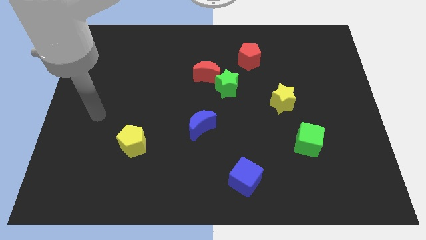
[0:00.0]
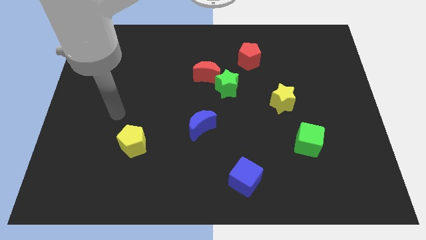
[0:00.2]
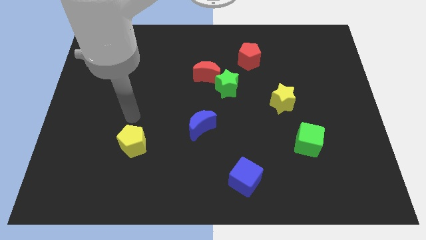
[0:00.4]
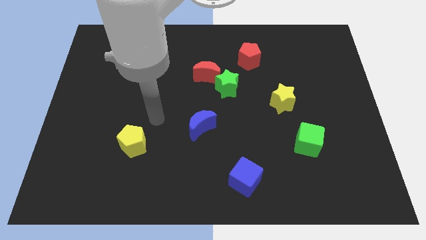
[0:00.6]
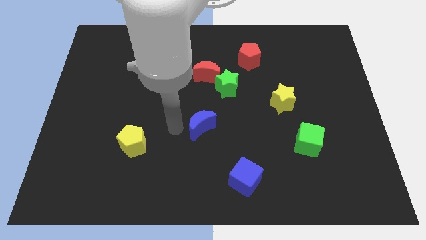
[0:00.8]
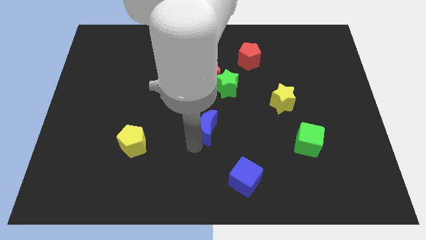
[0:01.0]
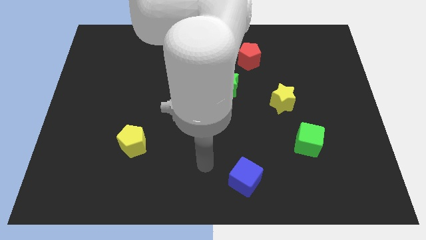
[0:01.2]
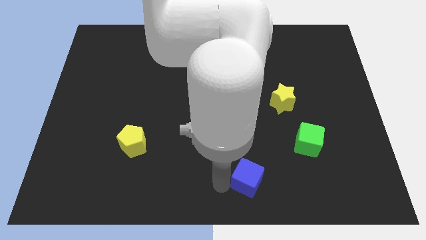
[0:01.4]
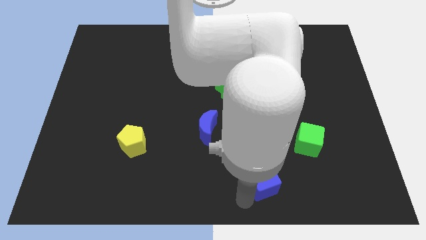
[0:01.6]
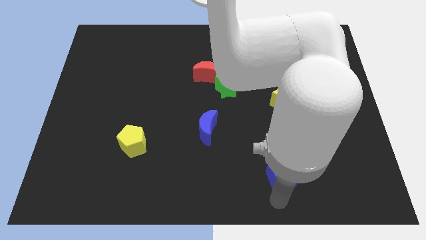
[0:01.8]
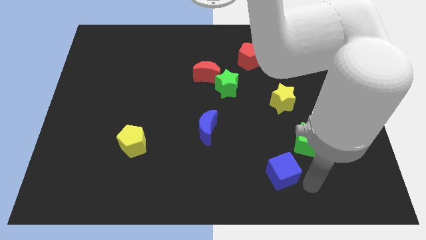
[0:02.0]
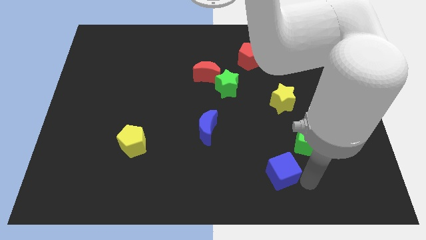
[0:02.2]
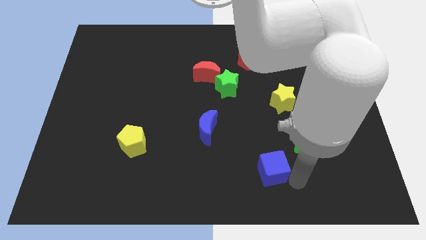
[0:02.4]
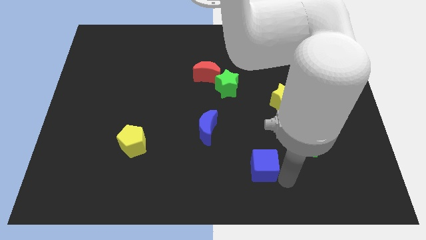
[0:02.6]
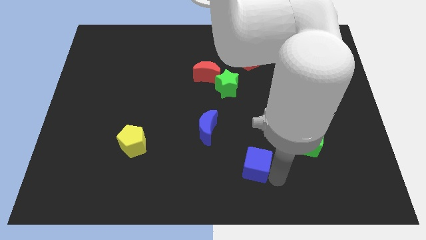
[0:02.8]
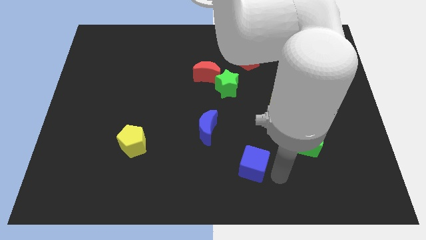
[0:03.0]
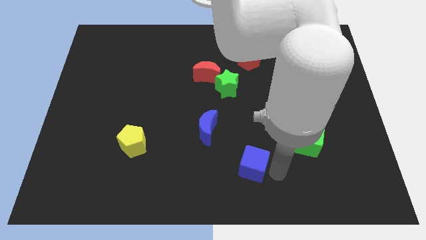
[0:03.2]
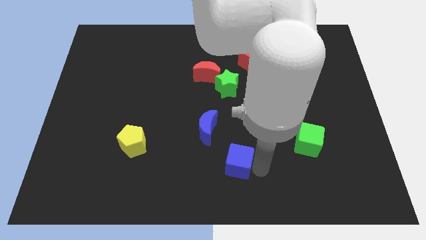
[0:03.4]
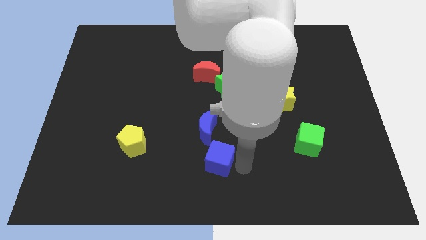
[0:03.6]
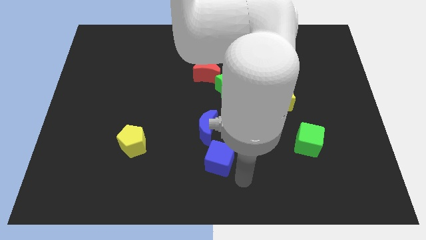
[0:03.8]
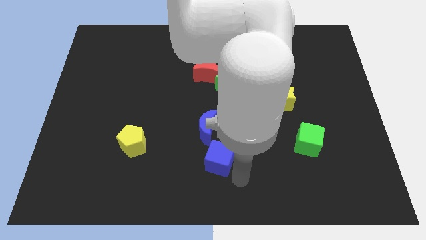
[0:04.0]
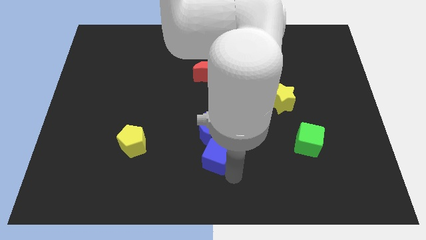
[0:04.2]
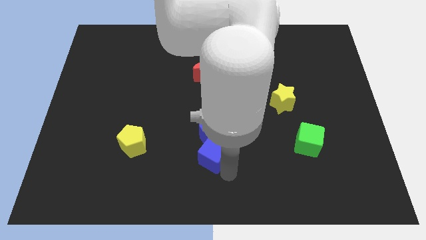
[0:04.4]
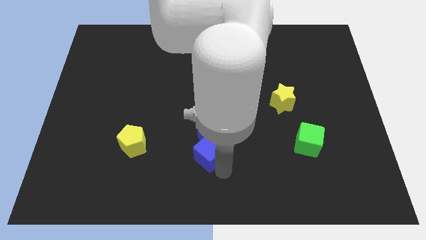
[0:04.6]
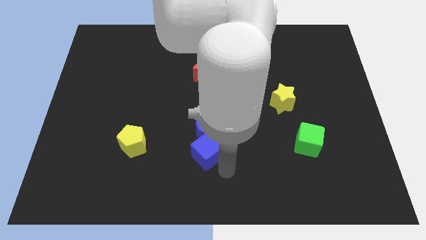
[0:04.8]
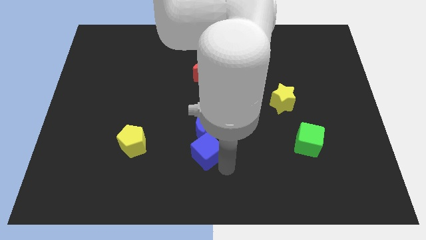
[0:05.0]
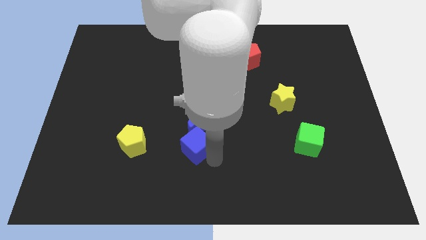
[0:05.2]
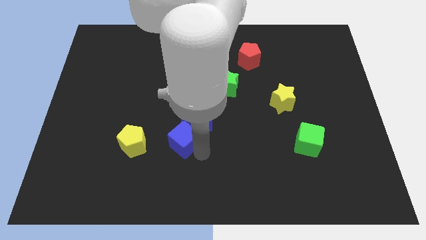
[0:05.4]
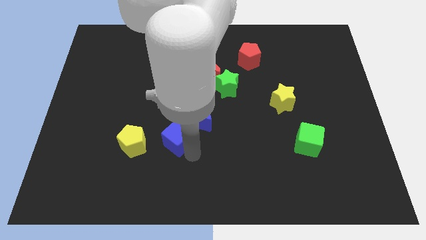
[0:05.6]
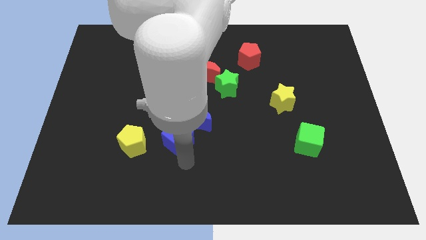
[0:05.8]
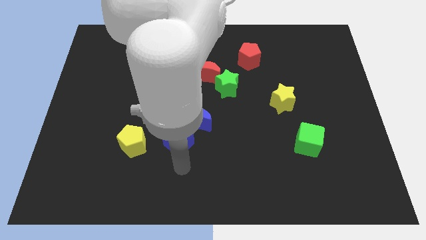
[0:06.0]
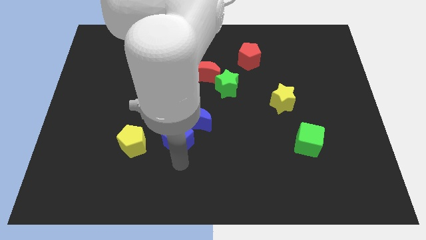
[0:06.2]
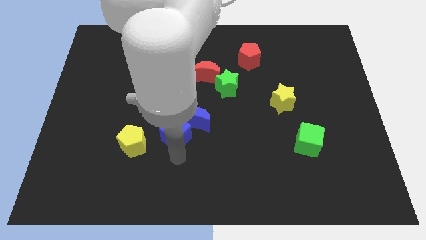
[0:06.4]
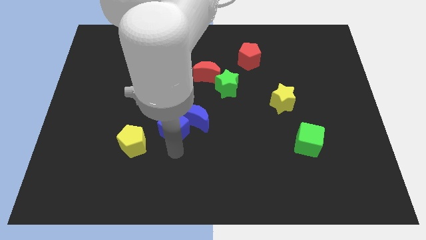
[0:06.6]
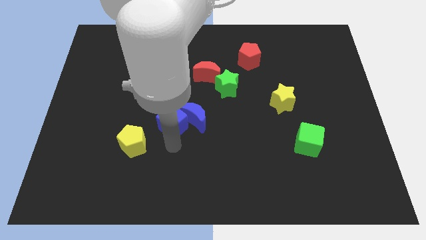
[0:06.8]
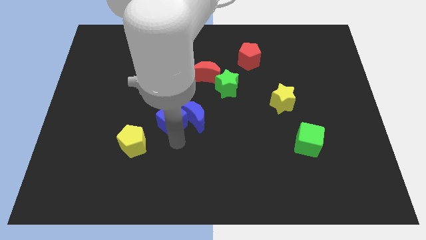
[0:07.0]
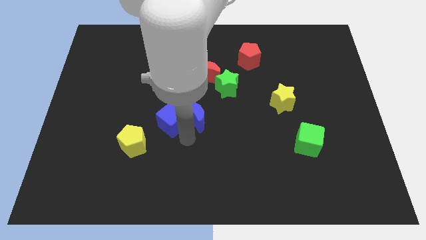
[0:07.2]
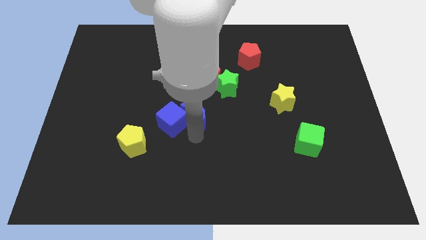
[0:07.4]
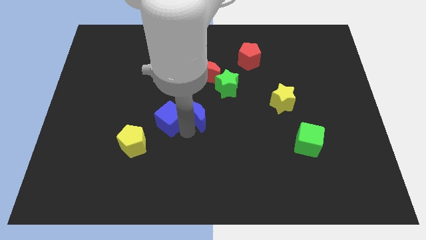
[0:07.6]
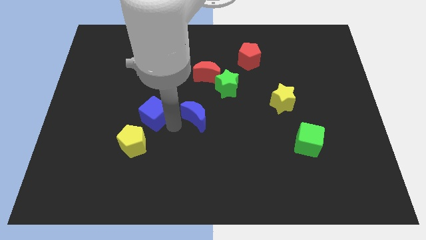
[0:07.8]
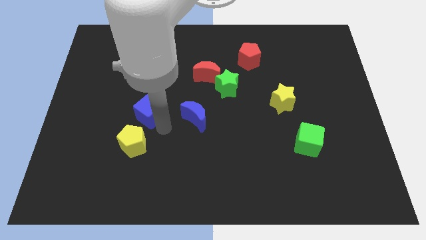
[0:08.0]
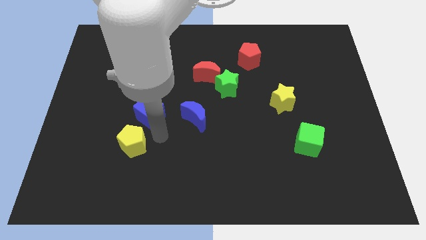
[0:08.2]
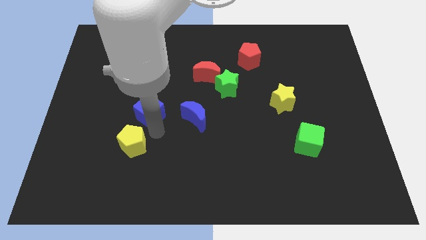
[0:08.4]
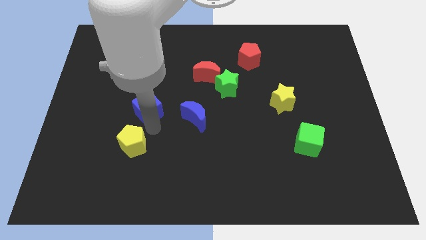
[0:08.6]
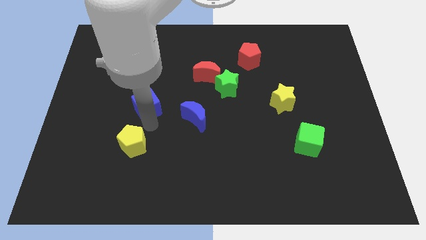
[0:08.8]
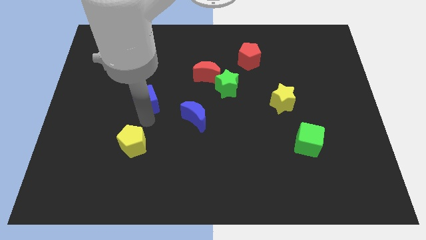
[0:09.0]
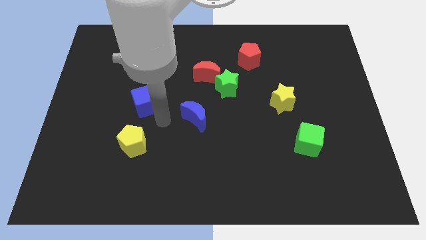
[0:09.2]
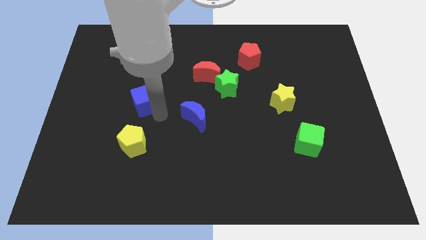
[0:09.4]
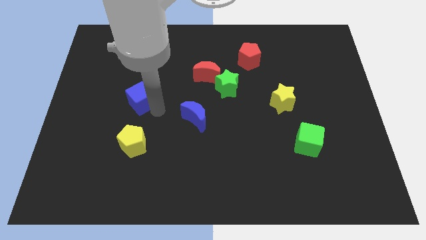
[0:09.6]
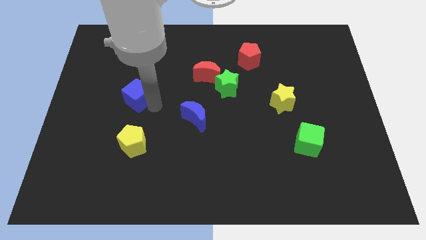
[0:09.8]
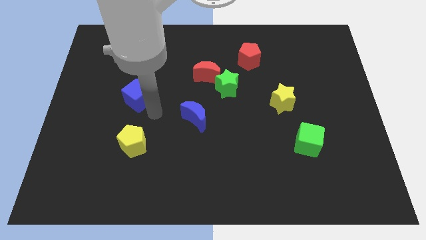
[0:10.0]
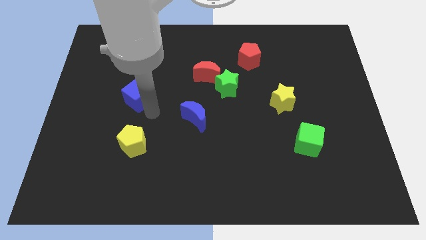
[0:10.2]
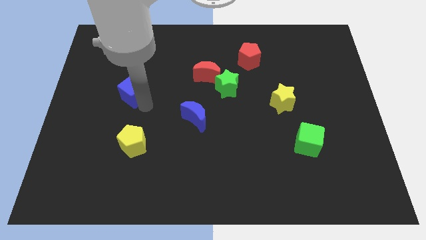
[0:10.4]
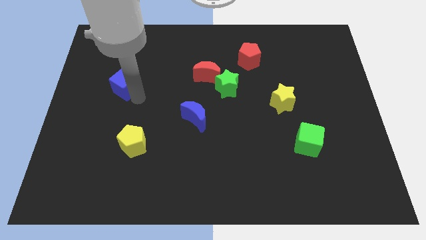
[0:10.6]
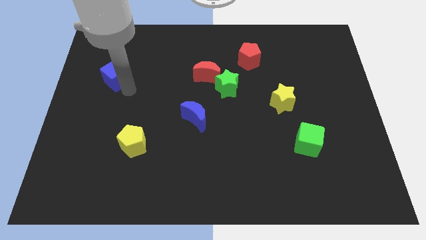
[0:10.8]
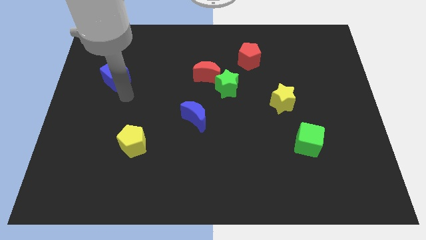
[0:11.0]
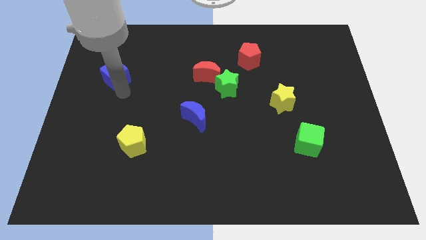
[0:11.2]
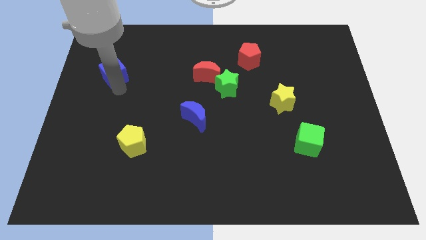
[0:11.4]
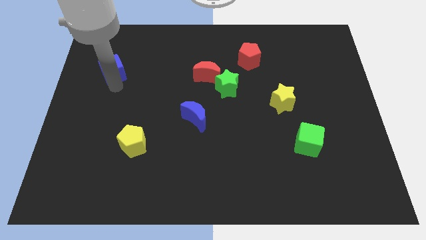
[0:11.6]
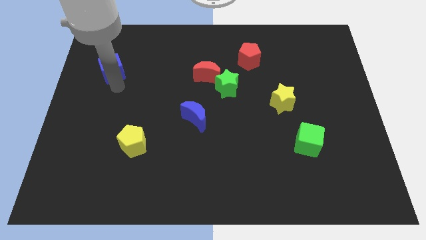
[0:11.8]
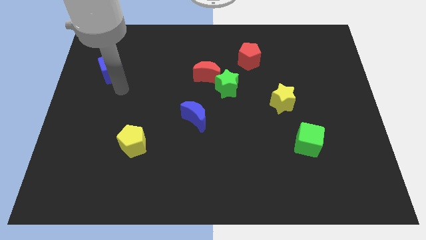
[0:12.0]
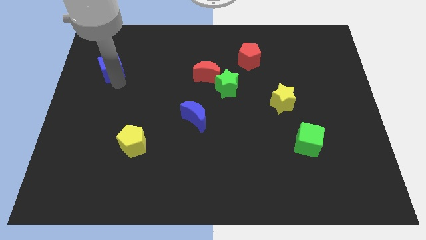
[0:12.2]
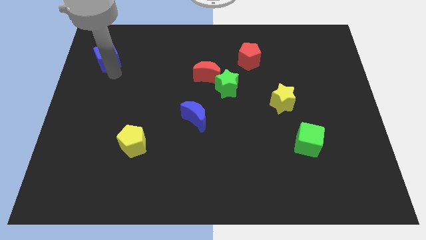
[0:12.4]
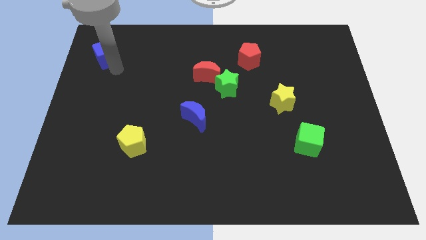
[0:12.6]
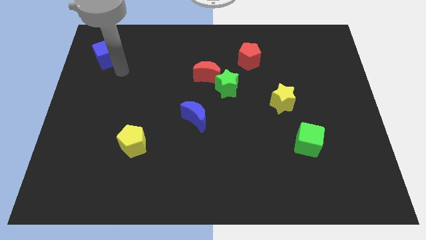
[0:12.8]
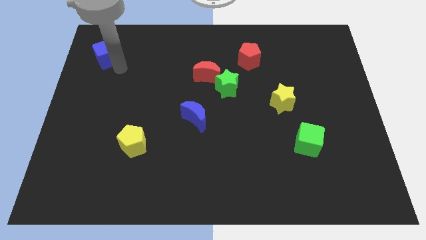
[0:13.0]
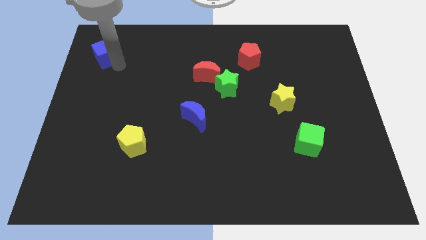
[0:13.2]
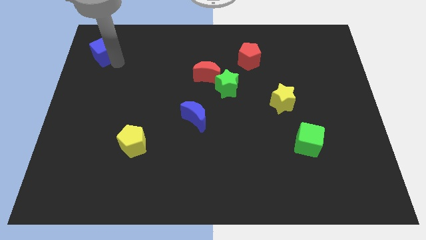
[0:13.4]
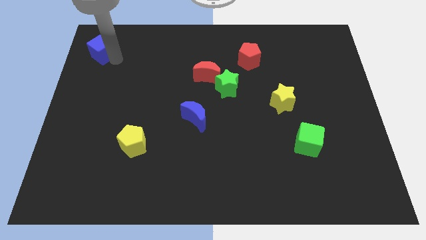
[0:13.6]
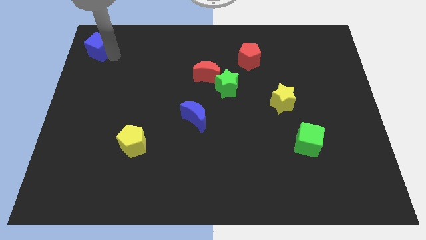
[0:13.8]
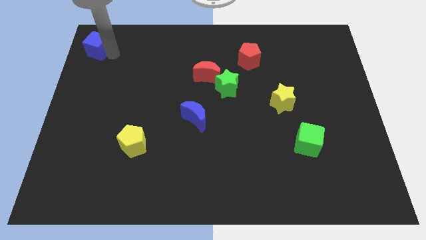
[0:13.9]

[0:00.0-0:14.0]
slide the blue cube to the upper left corner
